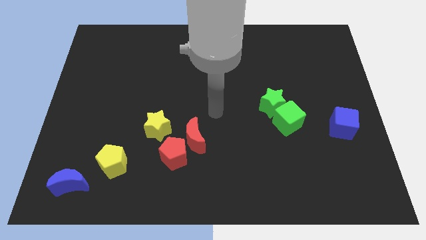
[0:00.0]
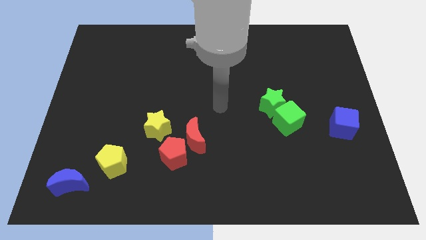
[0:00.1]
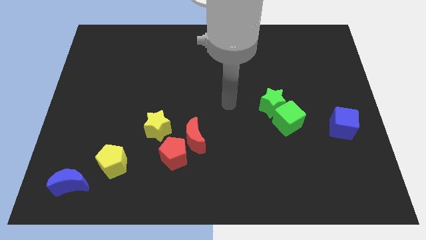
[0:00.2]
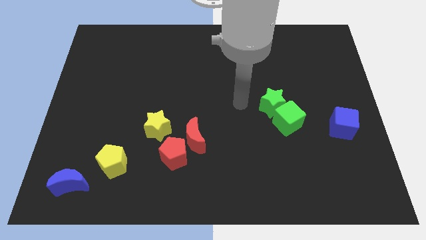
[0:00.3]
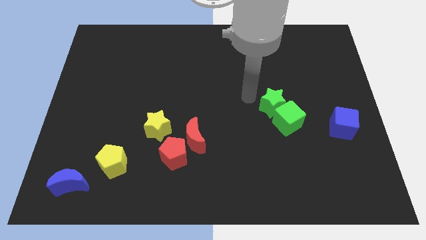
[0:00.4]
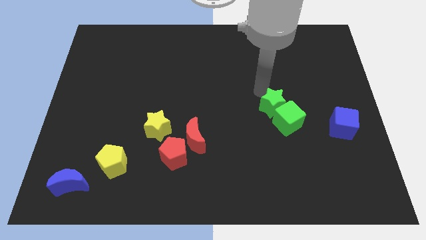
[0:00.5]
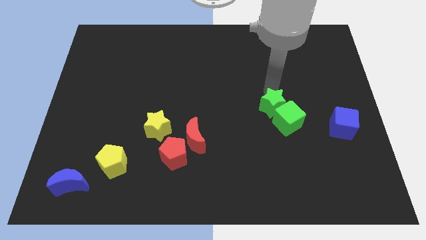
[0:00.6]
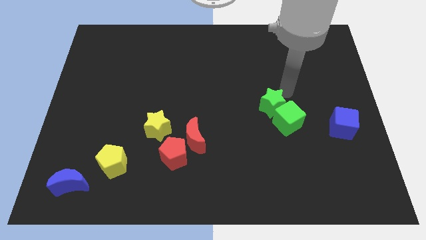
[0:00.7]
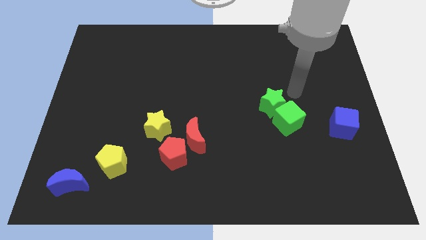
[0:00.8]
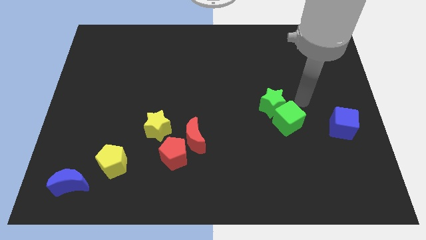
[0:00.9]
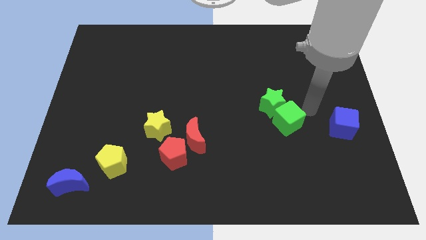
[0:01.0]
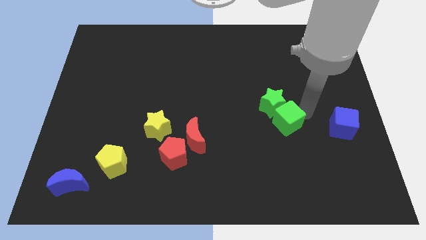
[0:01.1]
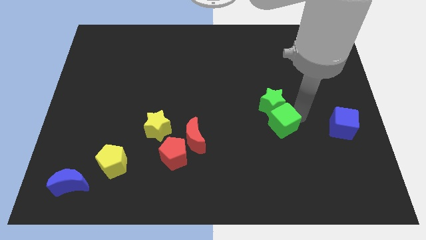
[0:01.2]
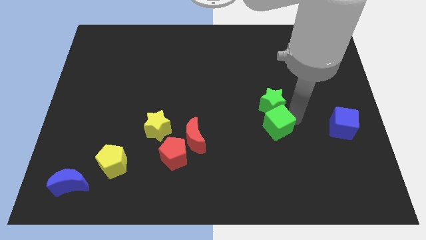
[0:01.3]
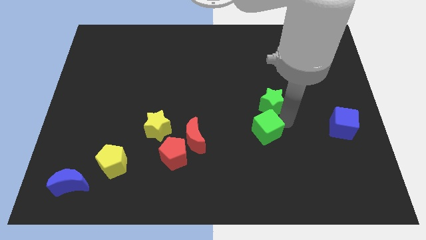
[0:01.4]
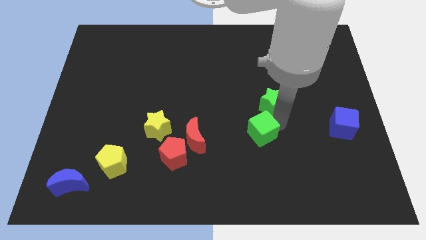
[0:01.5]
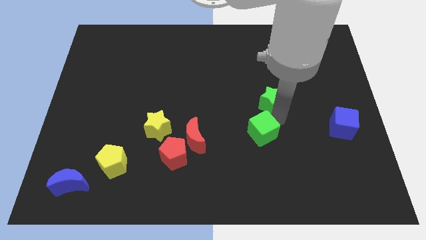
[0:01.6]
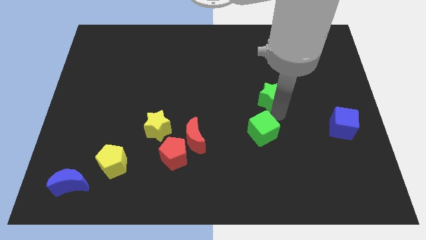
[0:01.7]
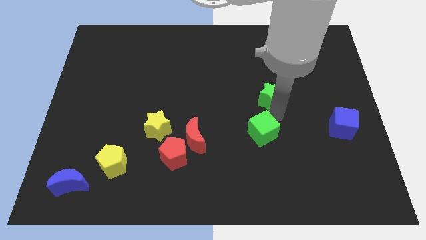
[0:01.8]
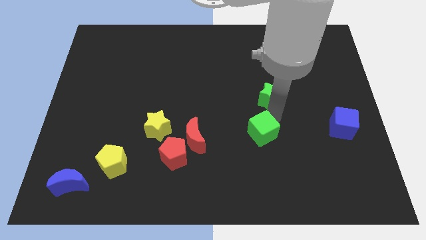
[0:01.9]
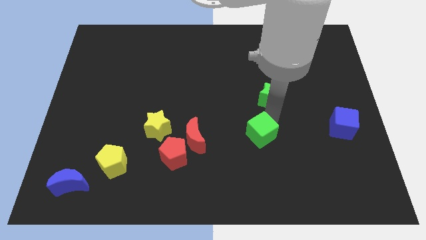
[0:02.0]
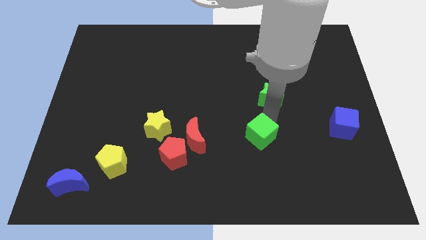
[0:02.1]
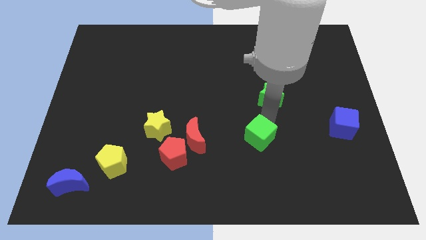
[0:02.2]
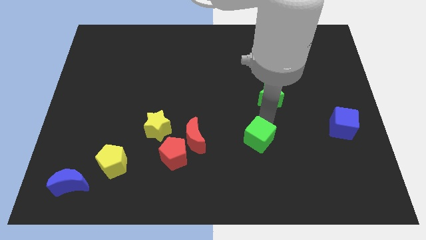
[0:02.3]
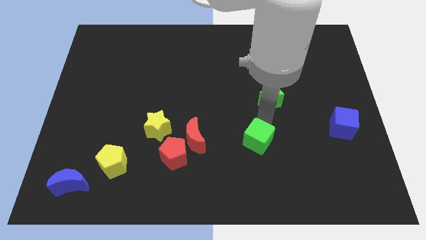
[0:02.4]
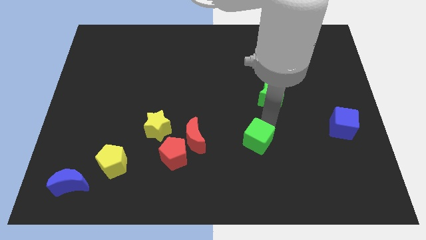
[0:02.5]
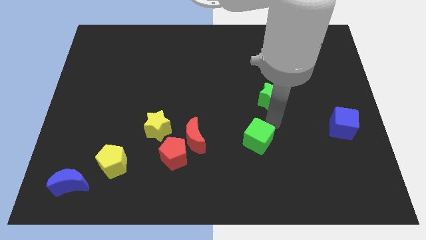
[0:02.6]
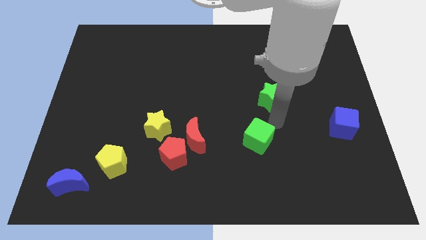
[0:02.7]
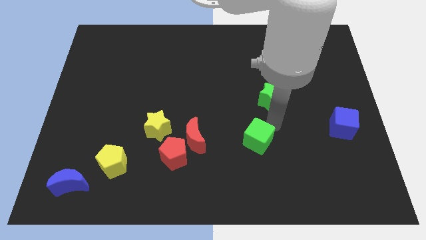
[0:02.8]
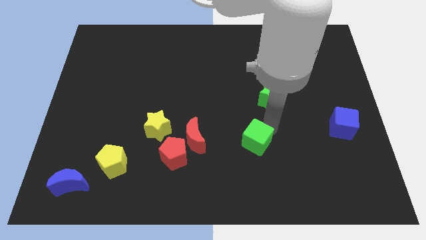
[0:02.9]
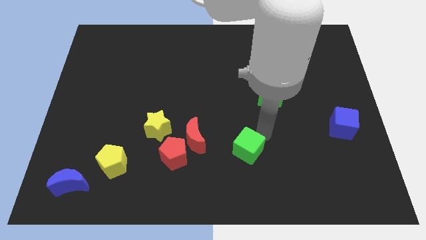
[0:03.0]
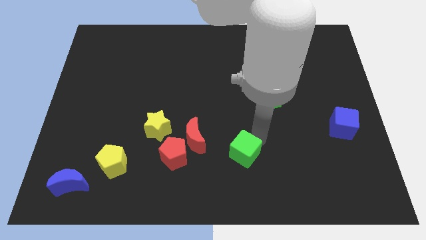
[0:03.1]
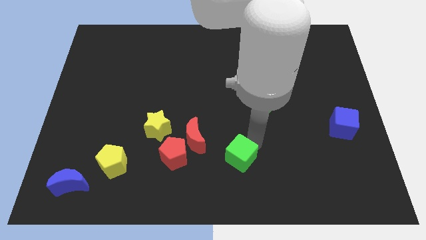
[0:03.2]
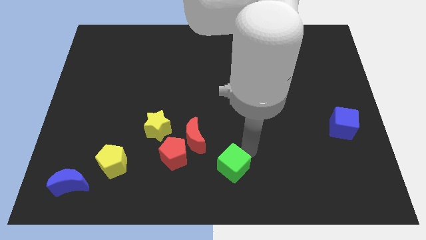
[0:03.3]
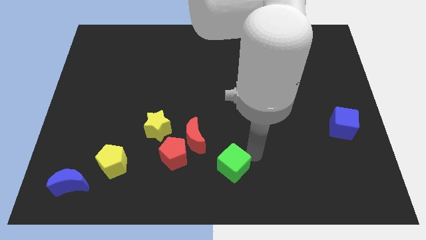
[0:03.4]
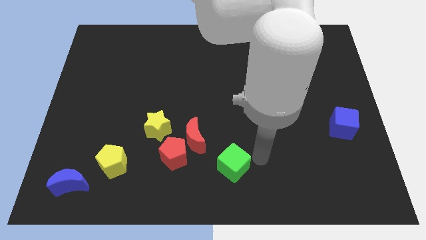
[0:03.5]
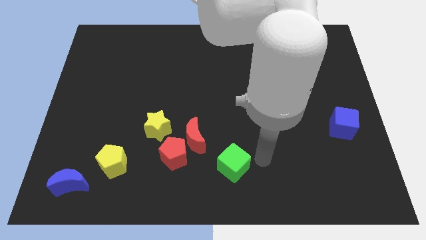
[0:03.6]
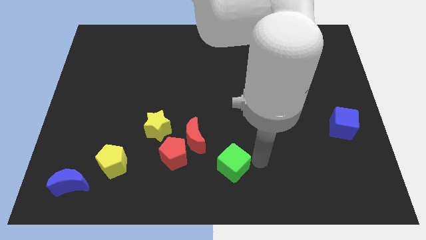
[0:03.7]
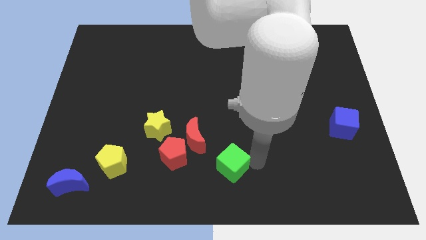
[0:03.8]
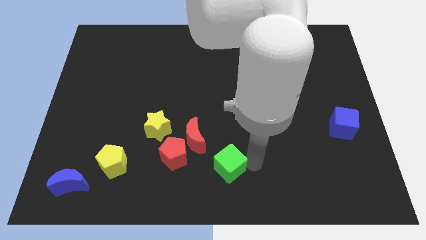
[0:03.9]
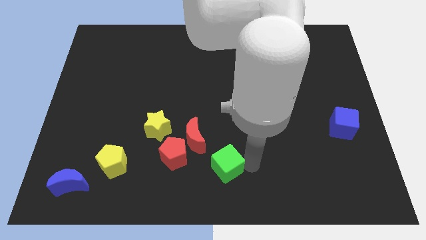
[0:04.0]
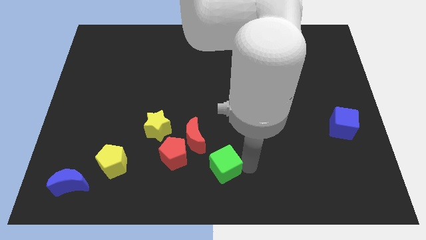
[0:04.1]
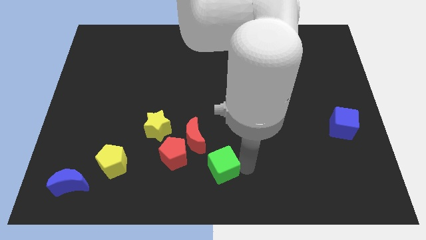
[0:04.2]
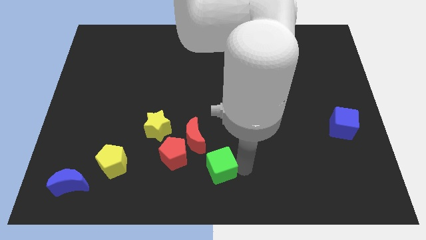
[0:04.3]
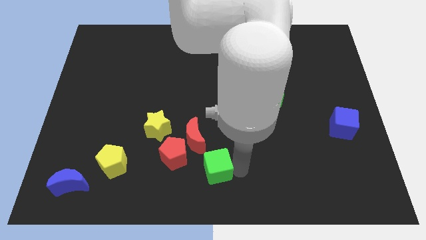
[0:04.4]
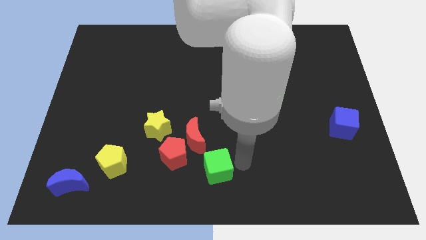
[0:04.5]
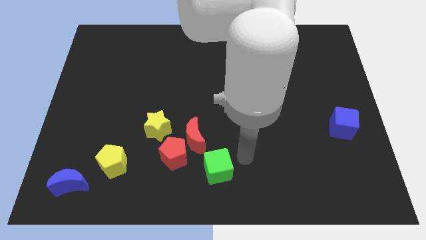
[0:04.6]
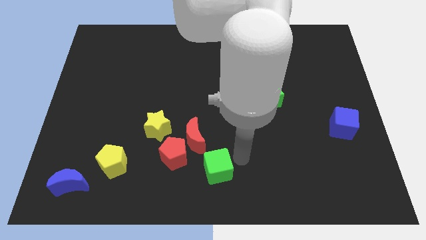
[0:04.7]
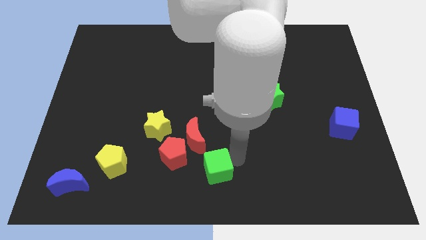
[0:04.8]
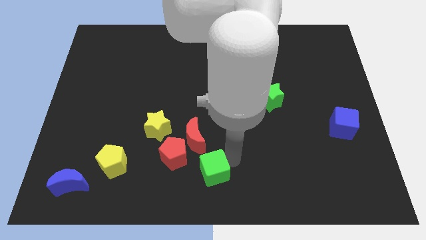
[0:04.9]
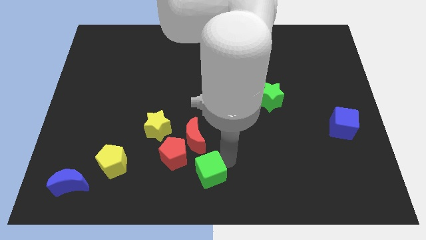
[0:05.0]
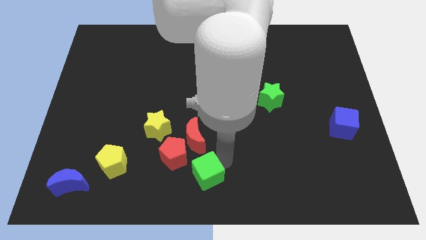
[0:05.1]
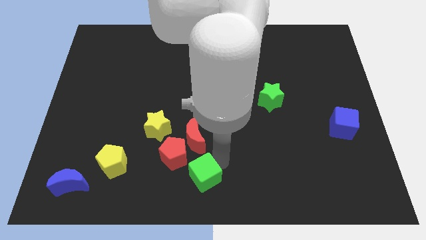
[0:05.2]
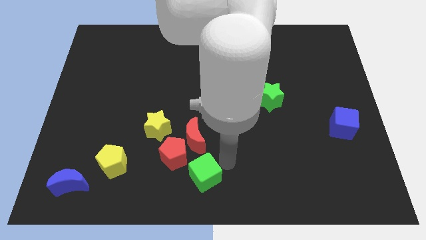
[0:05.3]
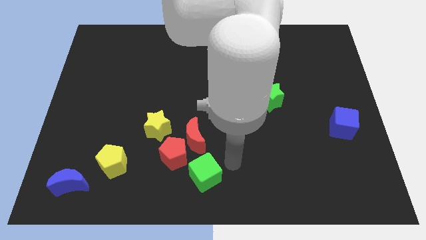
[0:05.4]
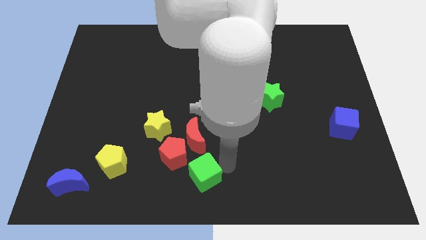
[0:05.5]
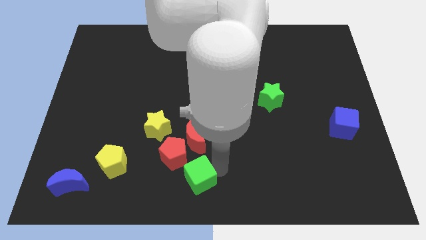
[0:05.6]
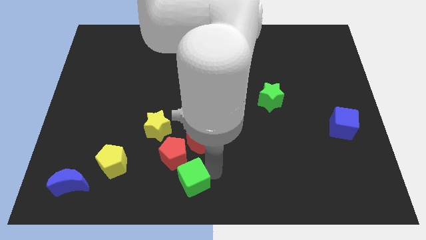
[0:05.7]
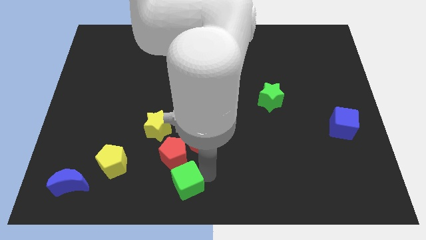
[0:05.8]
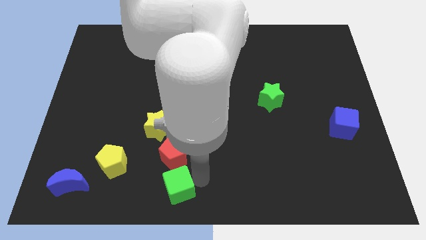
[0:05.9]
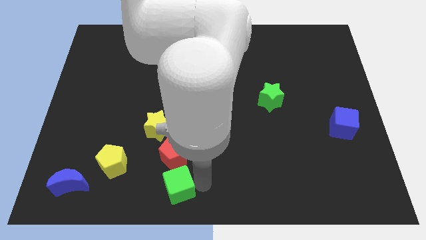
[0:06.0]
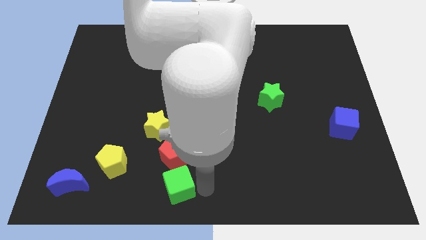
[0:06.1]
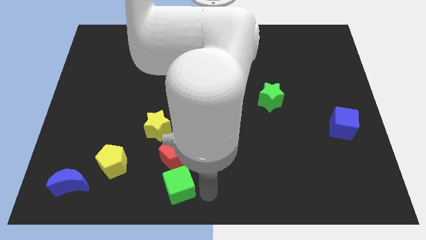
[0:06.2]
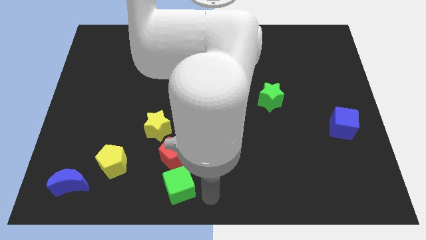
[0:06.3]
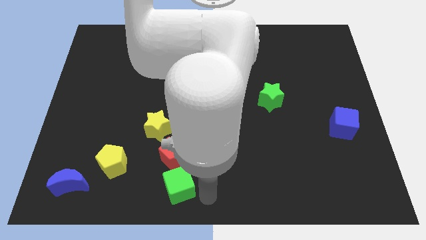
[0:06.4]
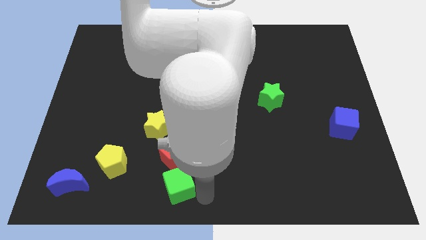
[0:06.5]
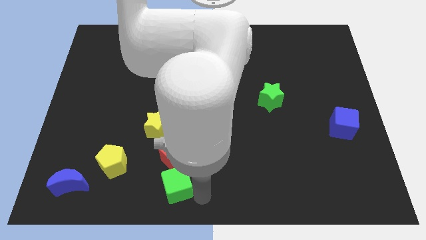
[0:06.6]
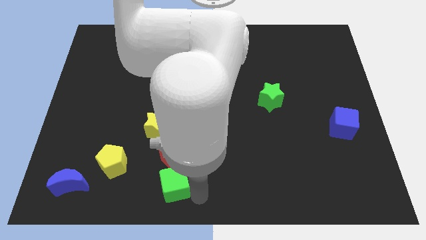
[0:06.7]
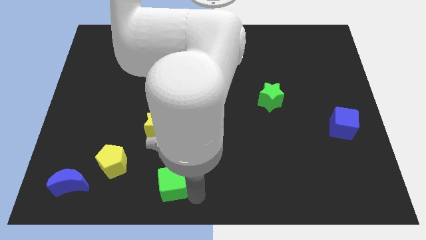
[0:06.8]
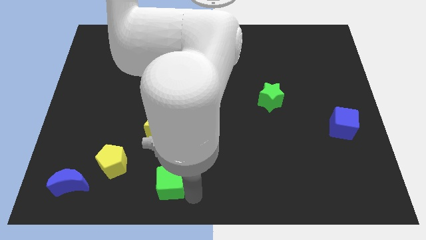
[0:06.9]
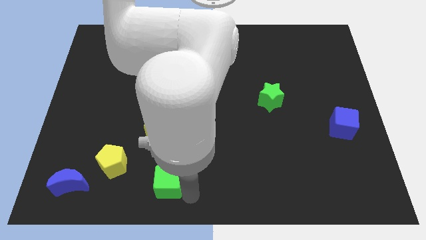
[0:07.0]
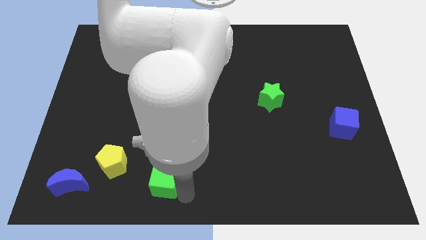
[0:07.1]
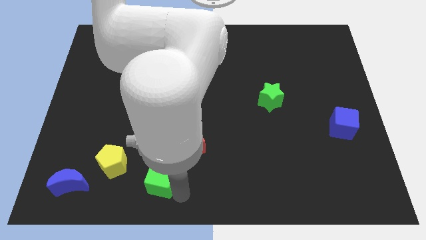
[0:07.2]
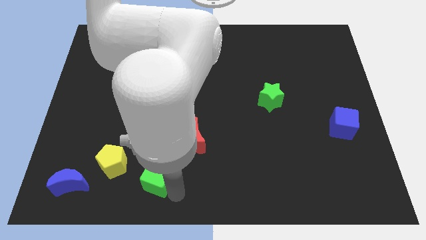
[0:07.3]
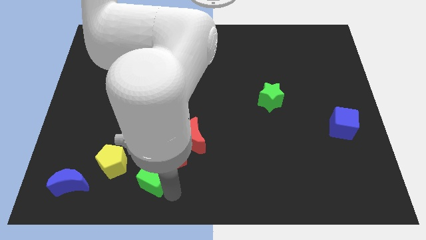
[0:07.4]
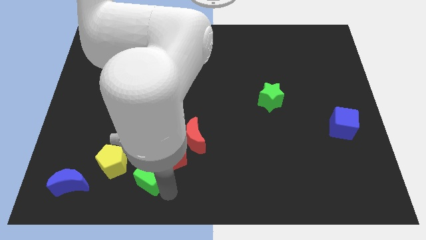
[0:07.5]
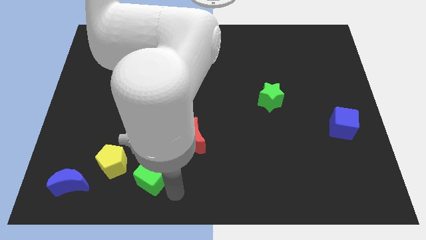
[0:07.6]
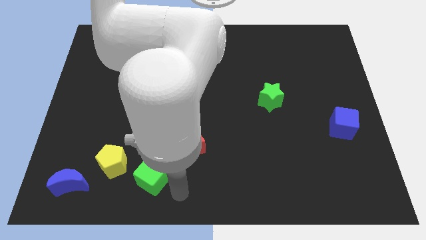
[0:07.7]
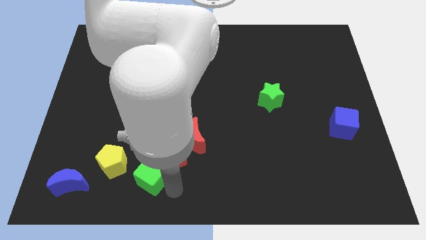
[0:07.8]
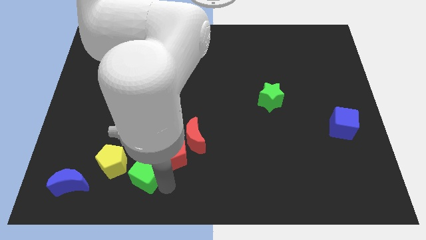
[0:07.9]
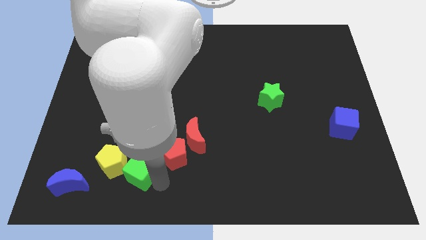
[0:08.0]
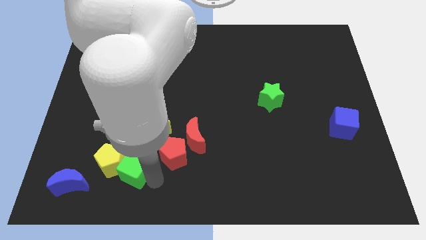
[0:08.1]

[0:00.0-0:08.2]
push the green cube to the yellow pentagon
